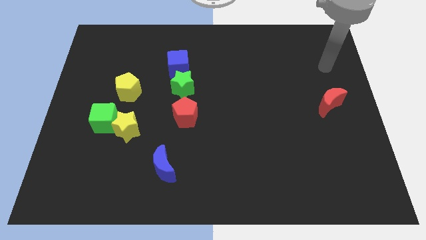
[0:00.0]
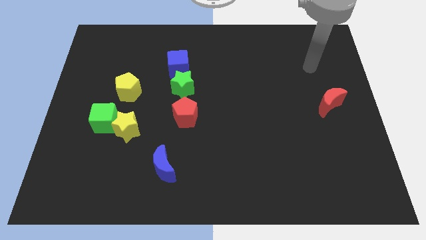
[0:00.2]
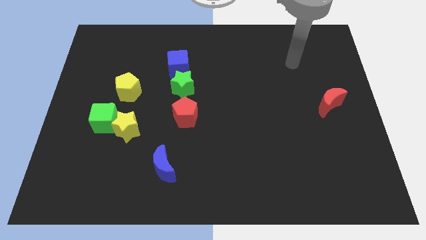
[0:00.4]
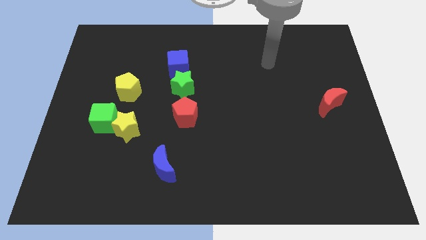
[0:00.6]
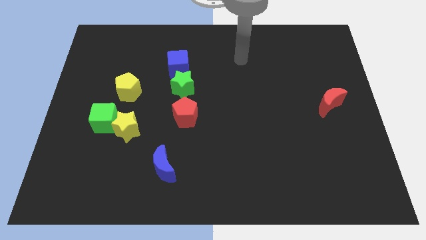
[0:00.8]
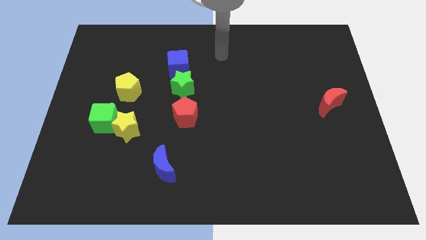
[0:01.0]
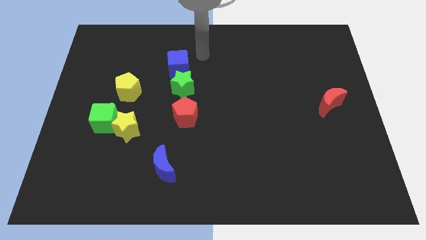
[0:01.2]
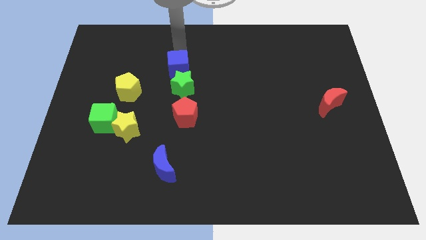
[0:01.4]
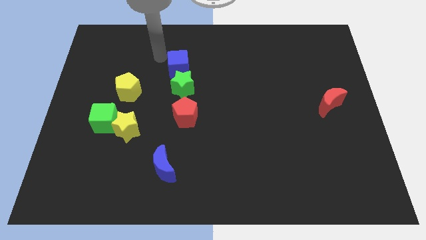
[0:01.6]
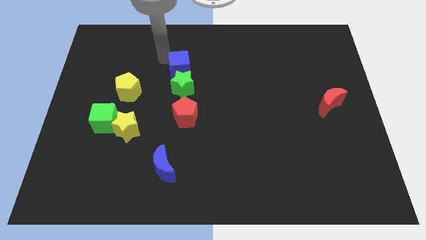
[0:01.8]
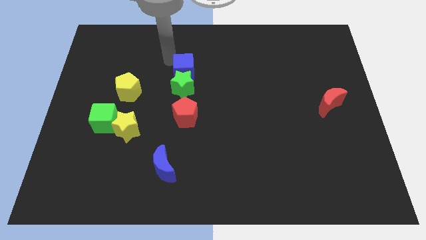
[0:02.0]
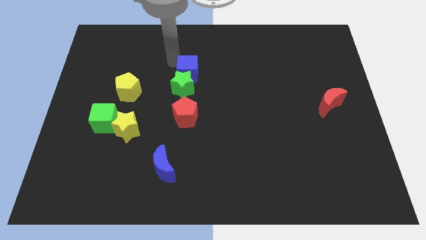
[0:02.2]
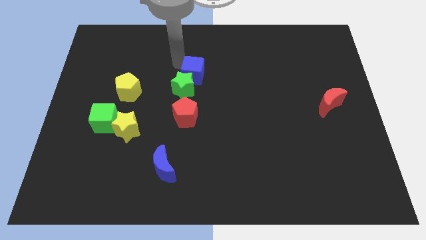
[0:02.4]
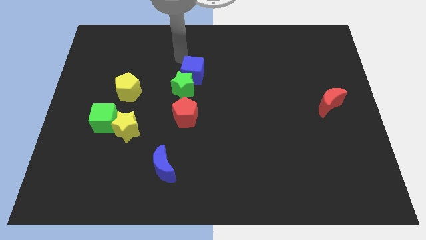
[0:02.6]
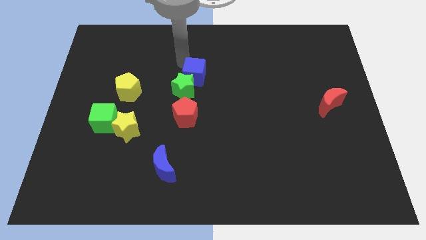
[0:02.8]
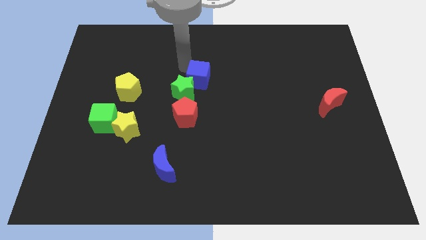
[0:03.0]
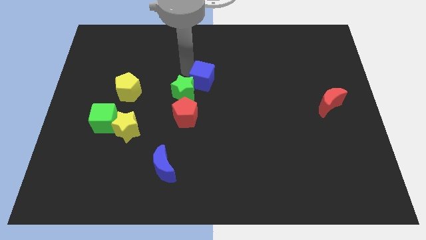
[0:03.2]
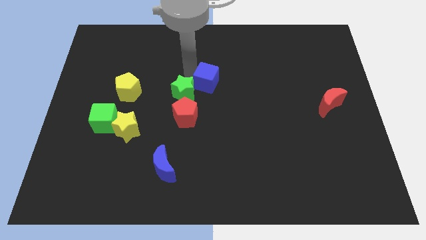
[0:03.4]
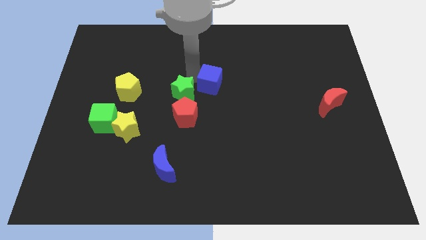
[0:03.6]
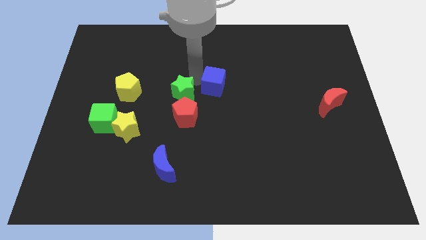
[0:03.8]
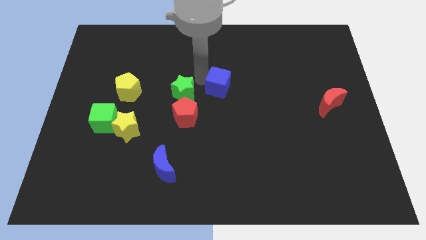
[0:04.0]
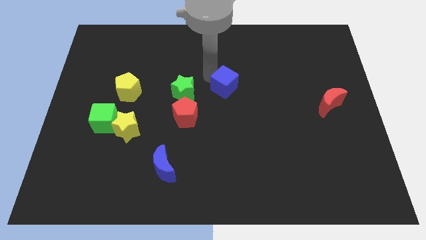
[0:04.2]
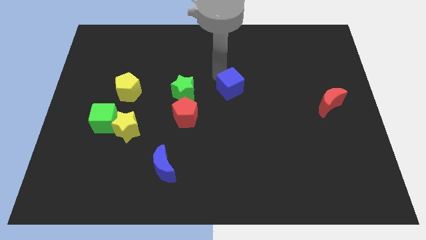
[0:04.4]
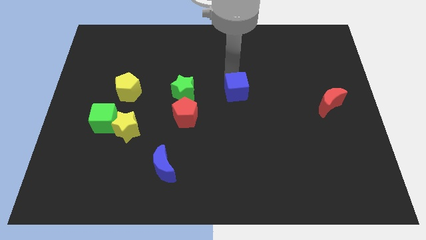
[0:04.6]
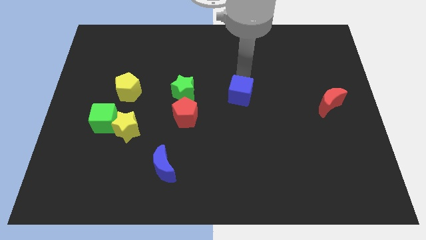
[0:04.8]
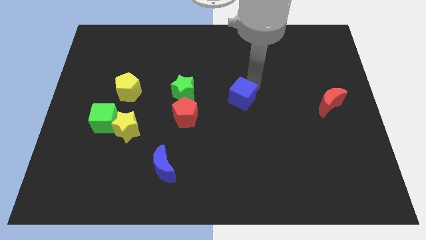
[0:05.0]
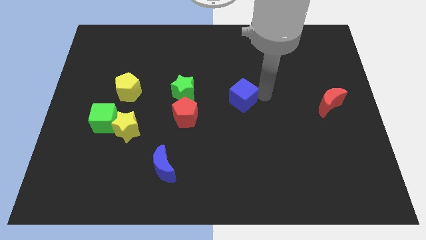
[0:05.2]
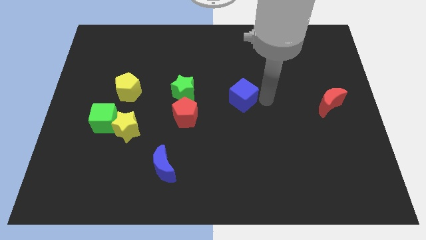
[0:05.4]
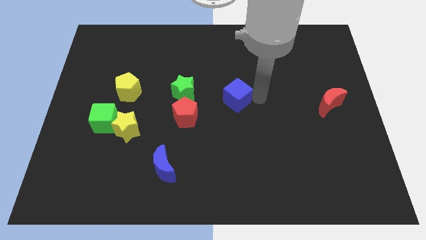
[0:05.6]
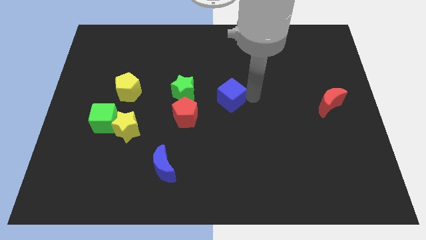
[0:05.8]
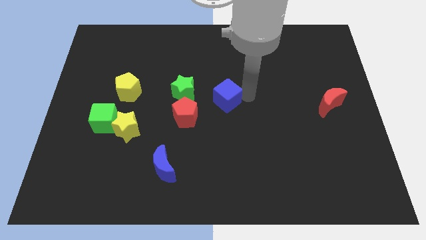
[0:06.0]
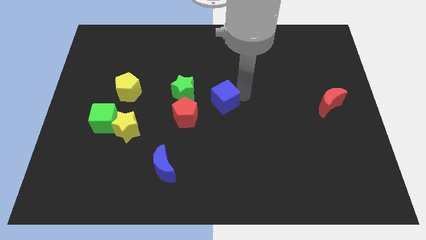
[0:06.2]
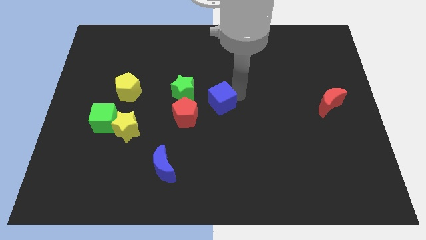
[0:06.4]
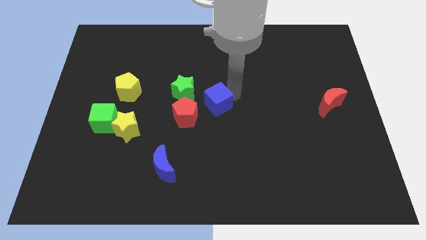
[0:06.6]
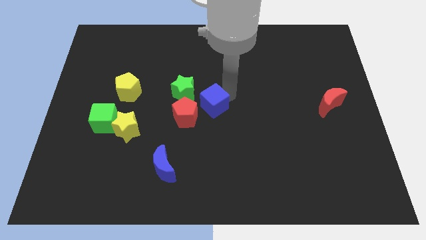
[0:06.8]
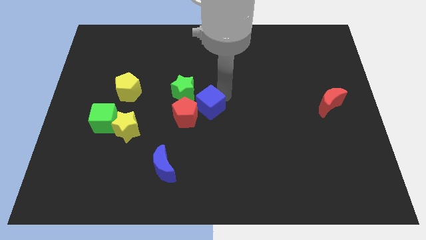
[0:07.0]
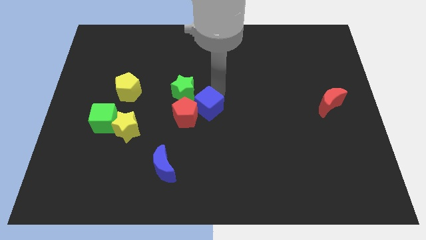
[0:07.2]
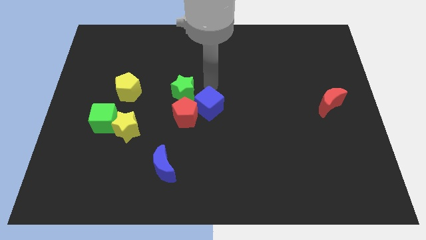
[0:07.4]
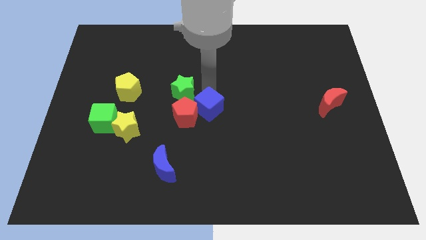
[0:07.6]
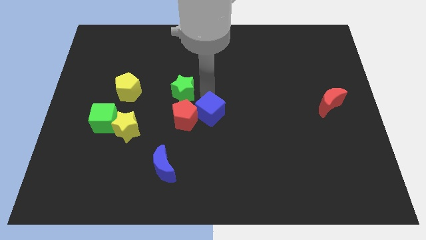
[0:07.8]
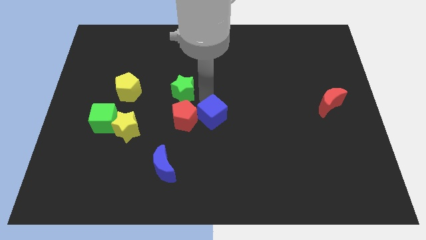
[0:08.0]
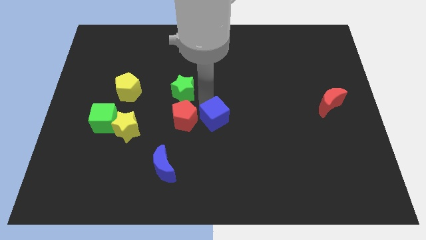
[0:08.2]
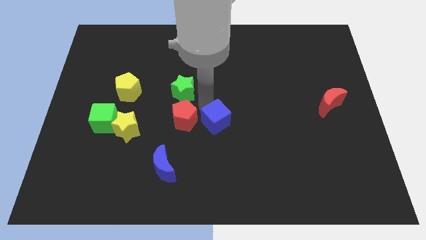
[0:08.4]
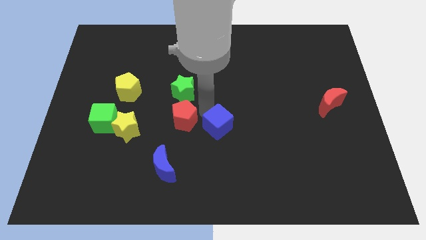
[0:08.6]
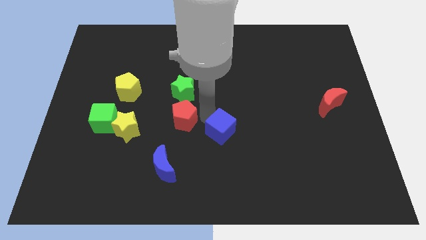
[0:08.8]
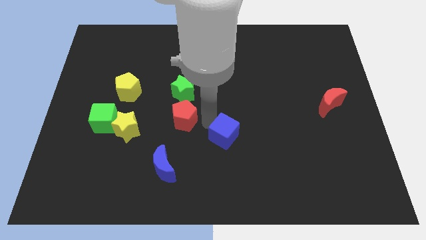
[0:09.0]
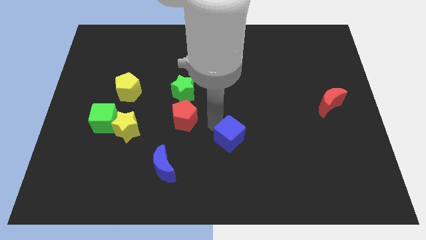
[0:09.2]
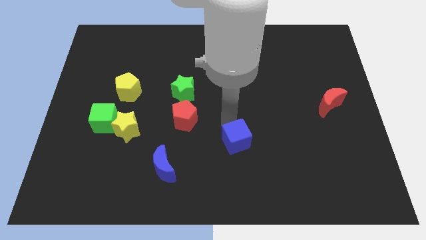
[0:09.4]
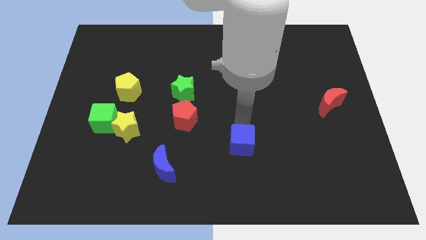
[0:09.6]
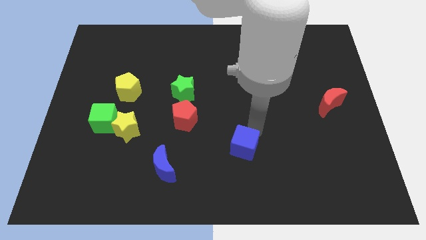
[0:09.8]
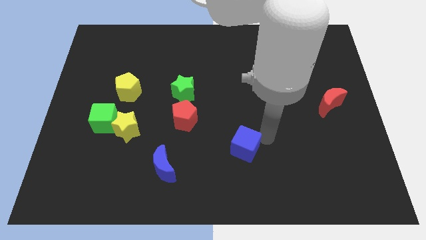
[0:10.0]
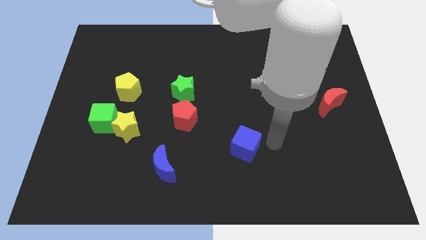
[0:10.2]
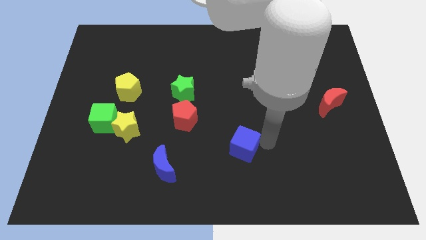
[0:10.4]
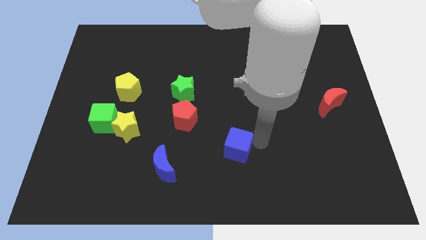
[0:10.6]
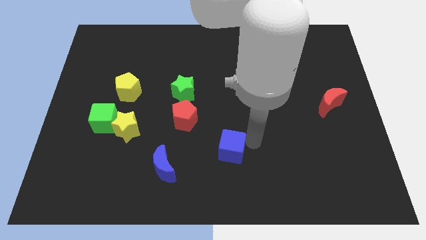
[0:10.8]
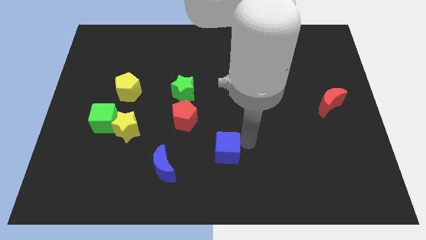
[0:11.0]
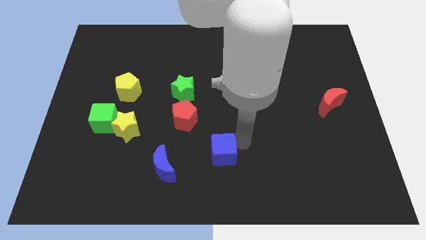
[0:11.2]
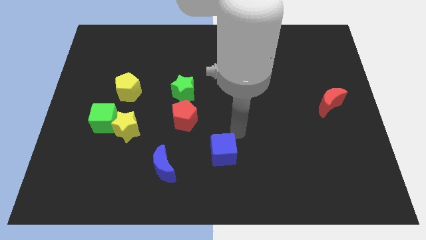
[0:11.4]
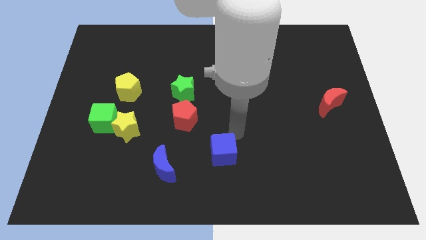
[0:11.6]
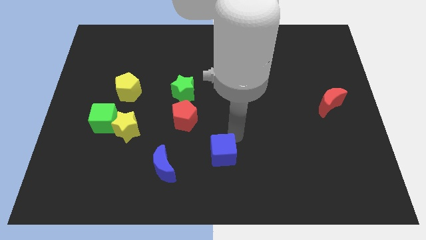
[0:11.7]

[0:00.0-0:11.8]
move the blue cube to the bottom
